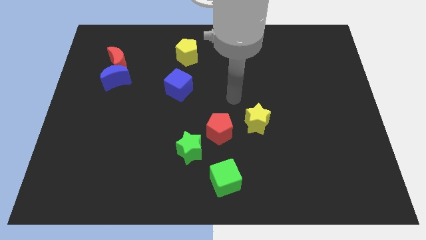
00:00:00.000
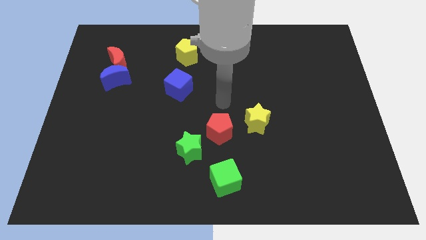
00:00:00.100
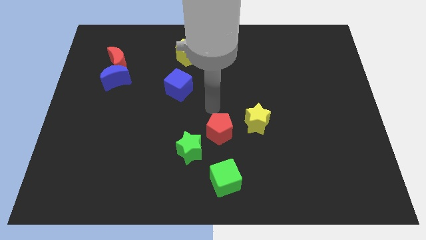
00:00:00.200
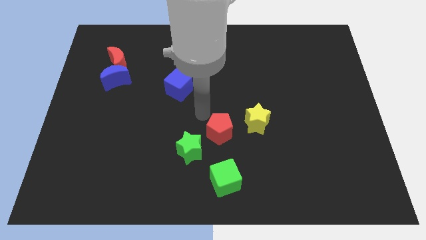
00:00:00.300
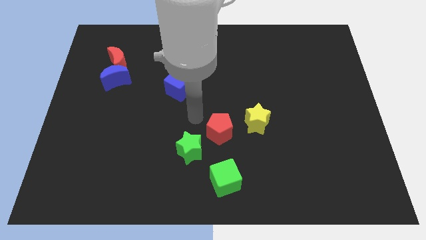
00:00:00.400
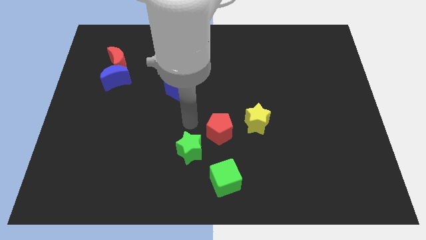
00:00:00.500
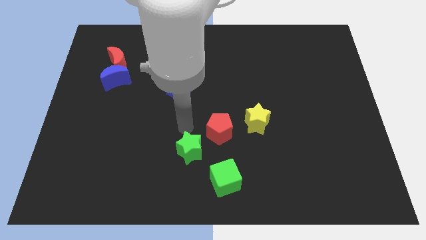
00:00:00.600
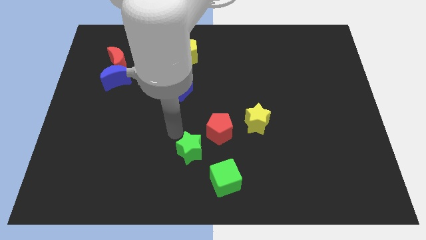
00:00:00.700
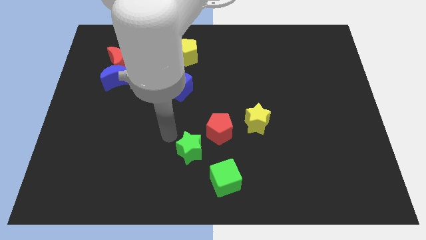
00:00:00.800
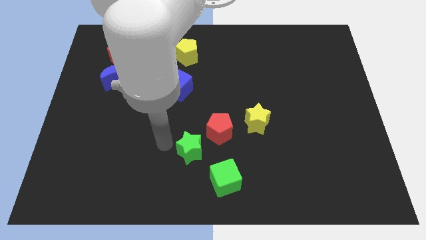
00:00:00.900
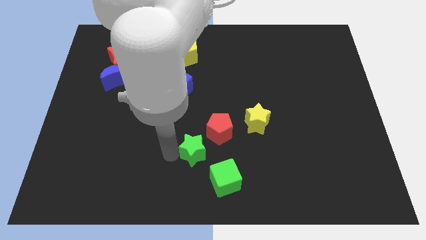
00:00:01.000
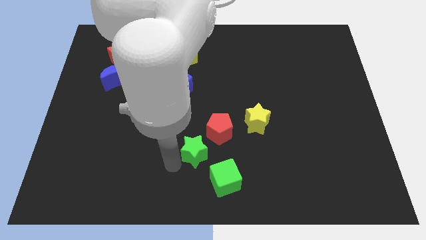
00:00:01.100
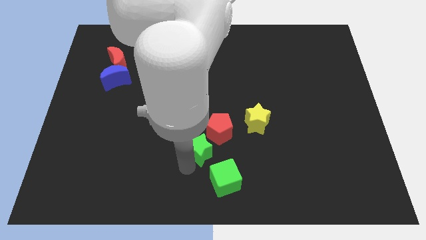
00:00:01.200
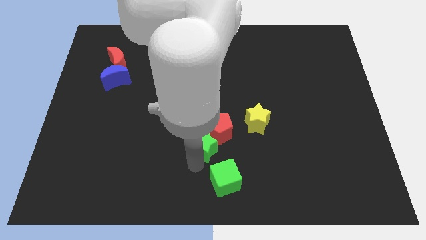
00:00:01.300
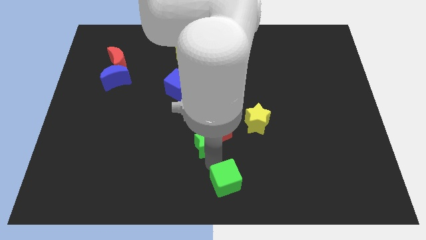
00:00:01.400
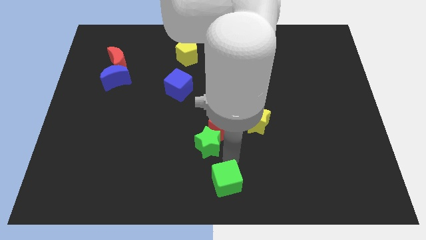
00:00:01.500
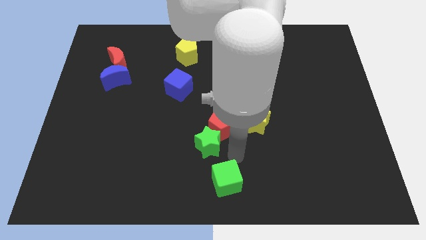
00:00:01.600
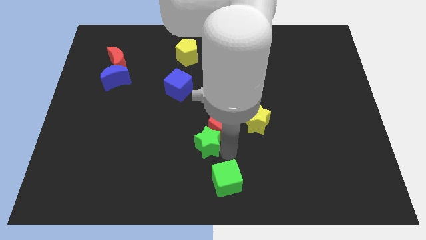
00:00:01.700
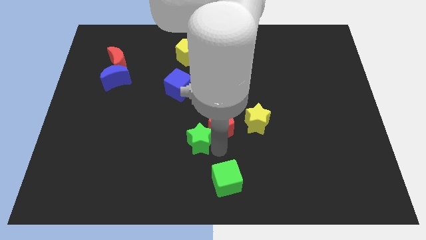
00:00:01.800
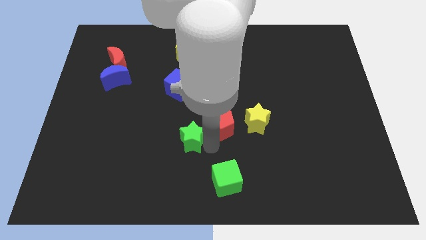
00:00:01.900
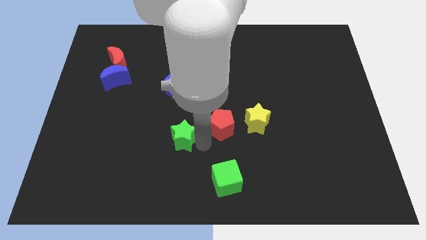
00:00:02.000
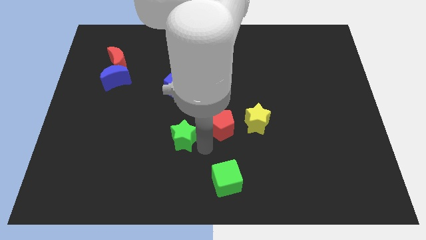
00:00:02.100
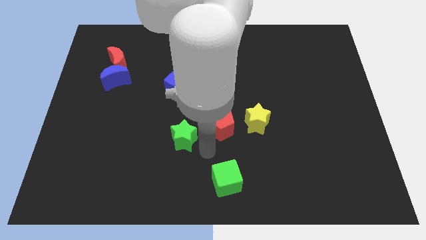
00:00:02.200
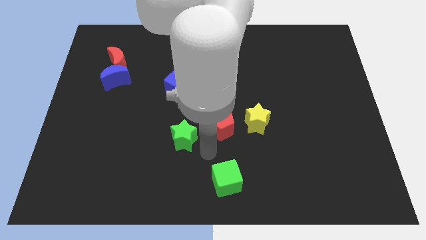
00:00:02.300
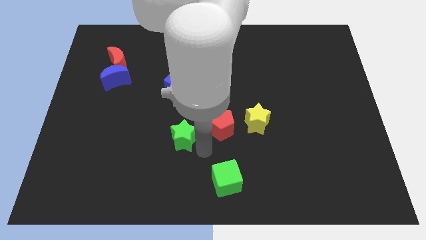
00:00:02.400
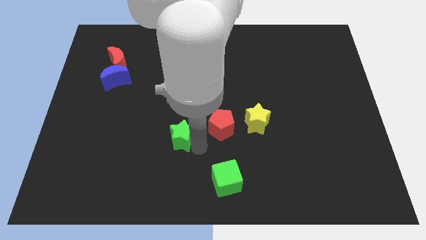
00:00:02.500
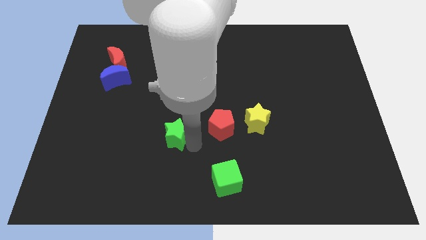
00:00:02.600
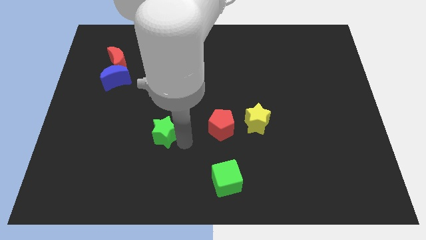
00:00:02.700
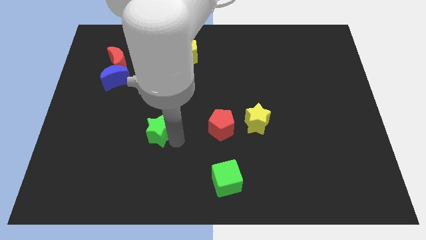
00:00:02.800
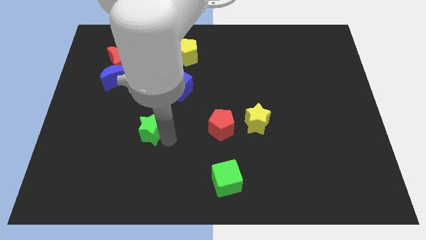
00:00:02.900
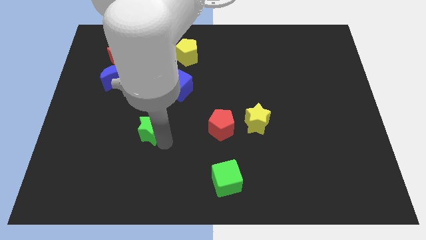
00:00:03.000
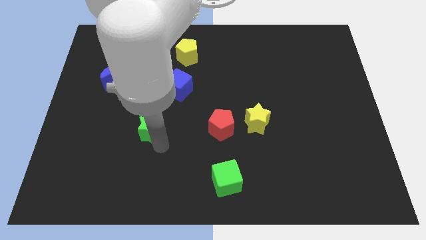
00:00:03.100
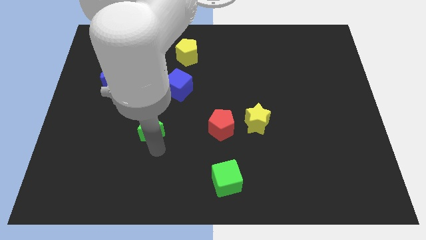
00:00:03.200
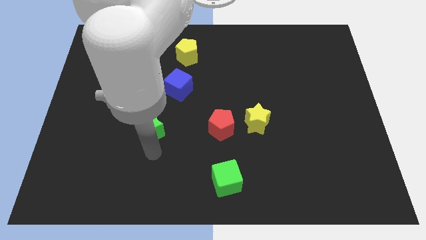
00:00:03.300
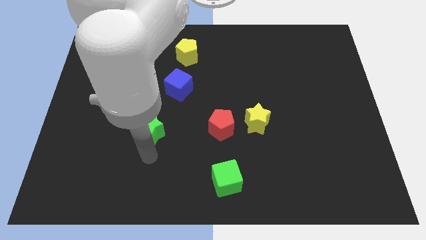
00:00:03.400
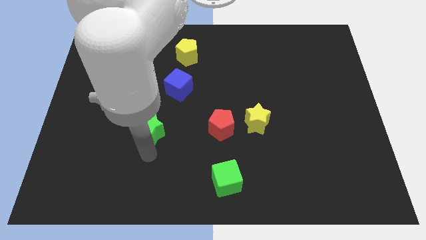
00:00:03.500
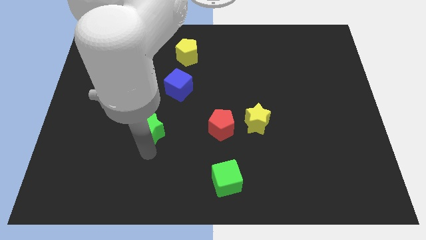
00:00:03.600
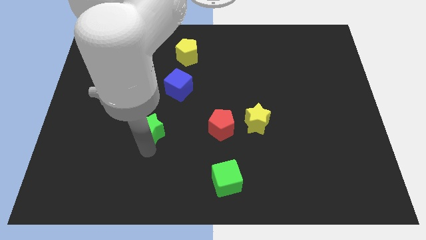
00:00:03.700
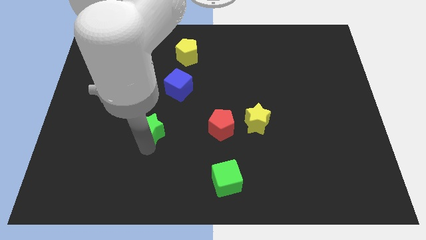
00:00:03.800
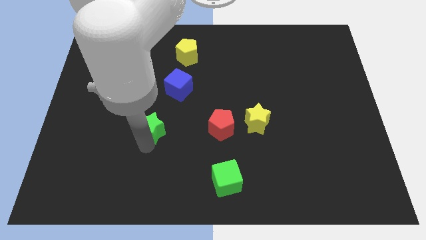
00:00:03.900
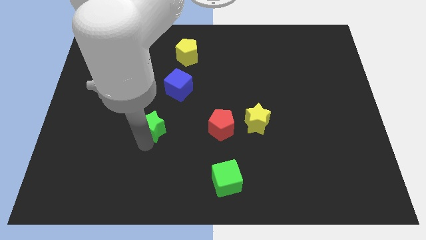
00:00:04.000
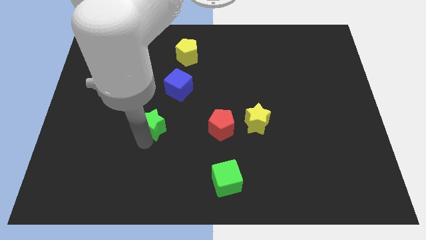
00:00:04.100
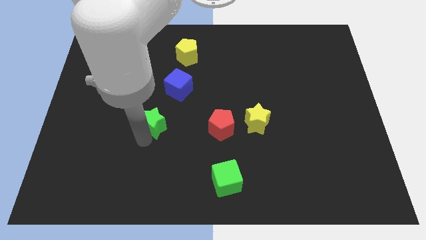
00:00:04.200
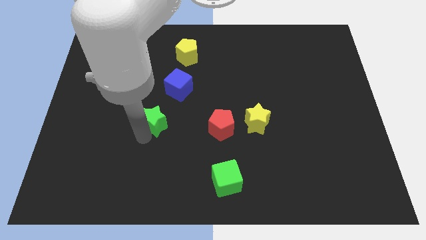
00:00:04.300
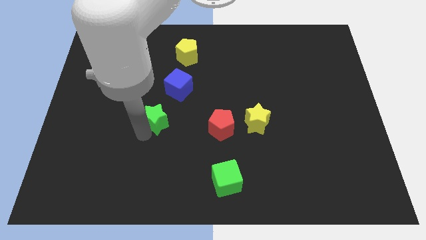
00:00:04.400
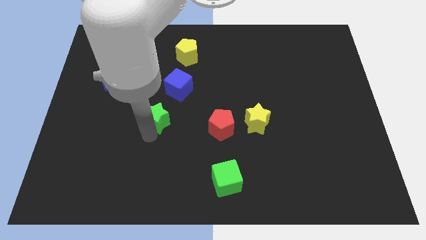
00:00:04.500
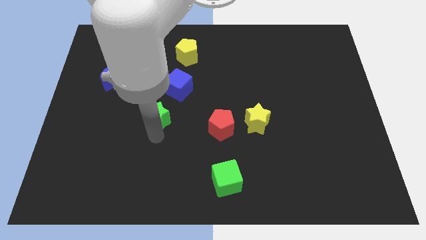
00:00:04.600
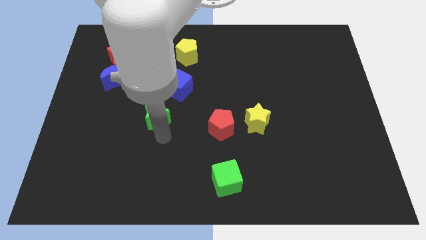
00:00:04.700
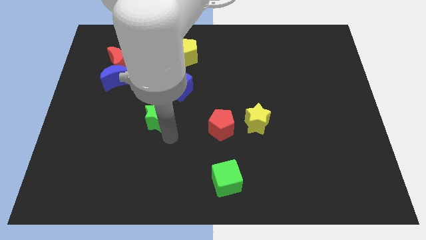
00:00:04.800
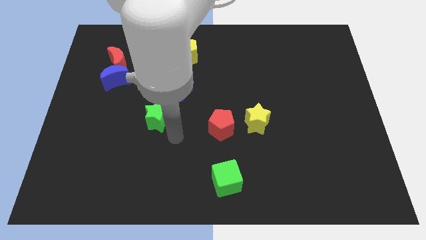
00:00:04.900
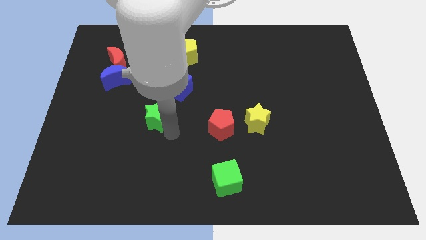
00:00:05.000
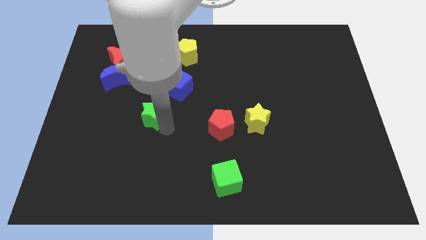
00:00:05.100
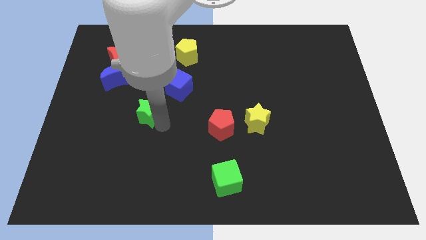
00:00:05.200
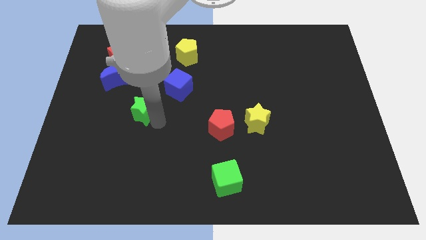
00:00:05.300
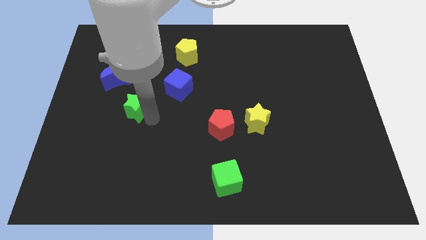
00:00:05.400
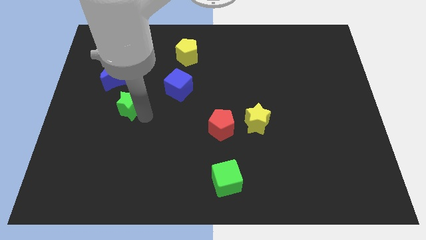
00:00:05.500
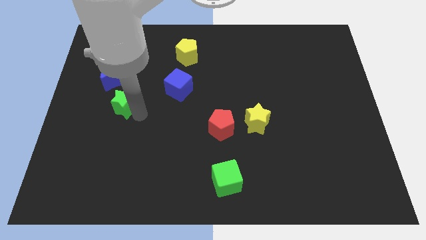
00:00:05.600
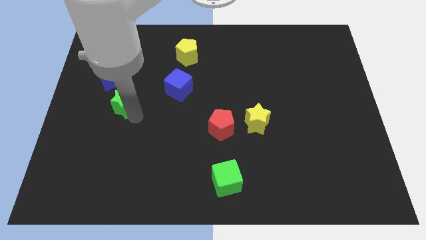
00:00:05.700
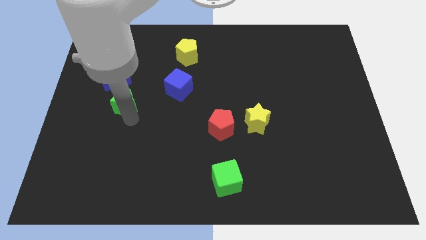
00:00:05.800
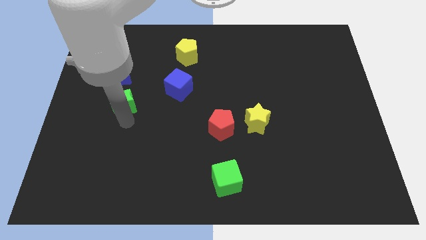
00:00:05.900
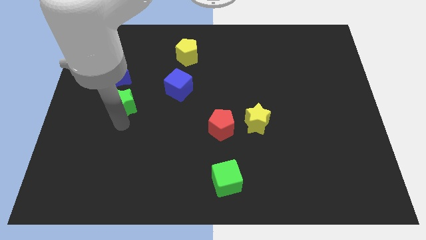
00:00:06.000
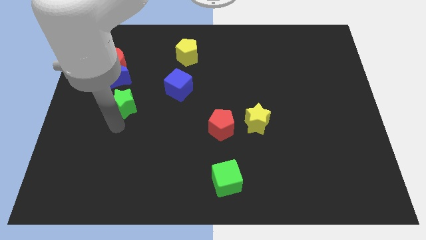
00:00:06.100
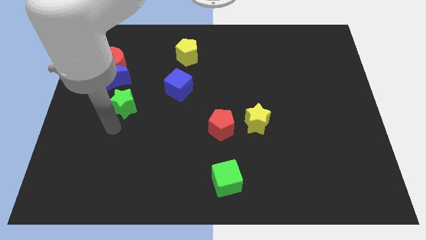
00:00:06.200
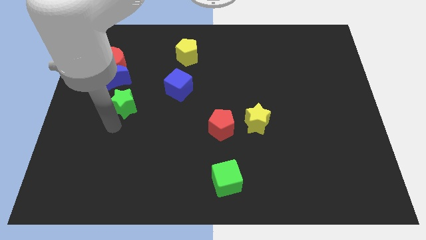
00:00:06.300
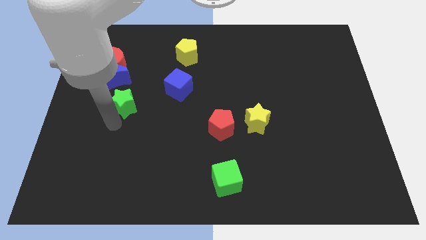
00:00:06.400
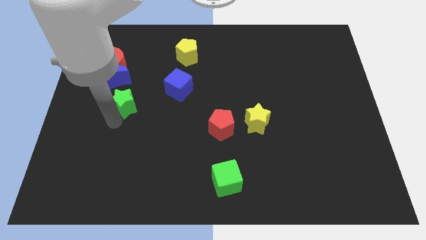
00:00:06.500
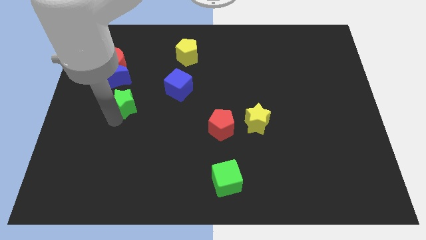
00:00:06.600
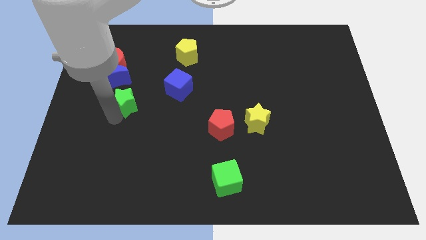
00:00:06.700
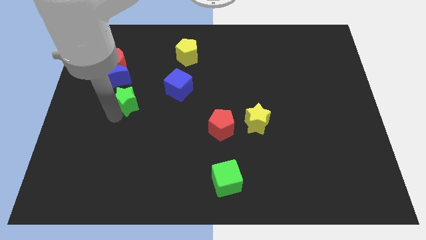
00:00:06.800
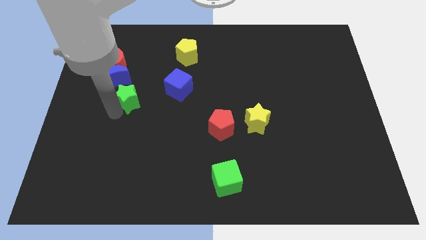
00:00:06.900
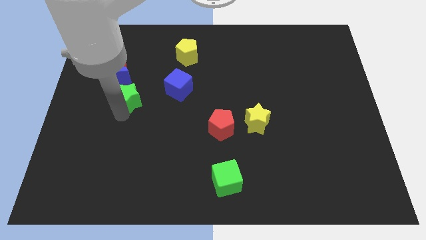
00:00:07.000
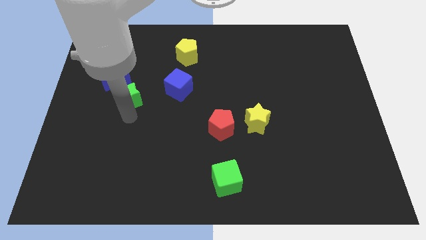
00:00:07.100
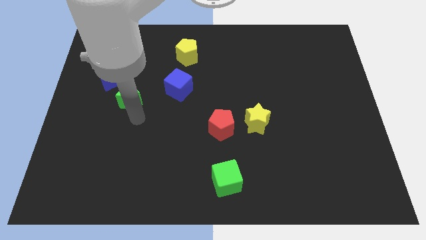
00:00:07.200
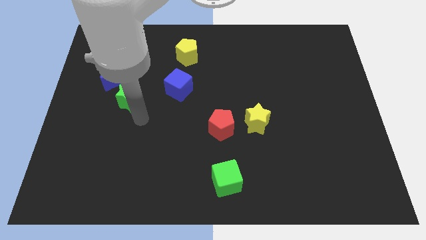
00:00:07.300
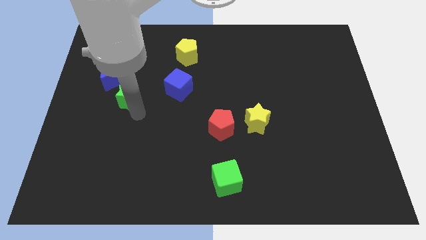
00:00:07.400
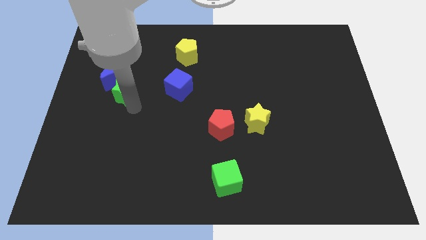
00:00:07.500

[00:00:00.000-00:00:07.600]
push the green star next to the blue moon
